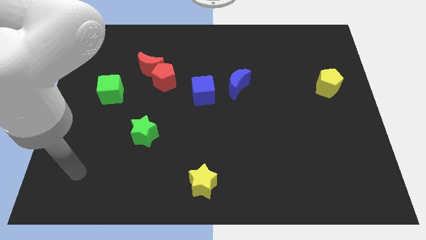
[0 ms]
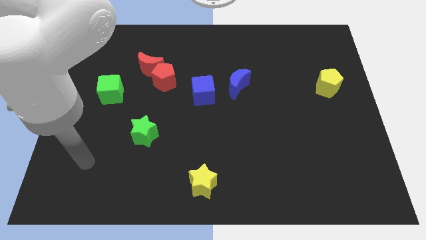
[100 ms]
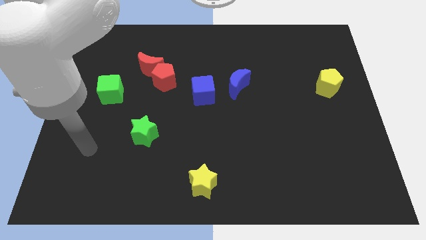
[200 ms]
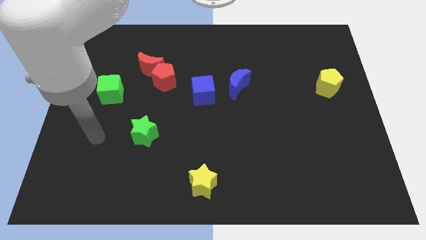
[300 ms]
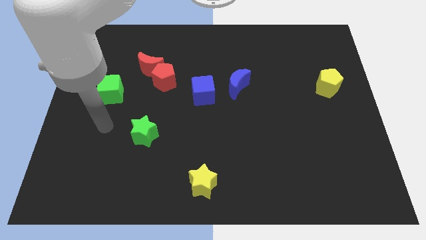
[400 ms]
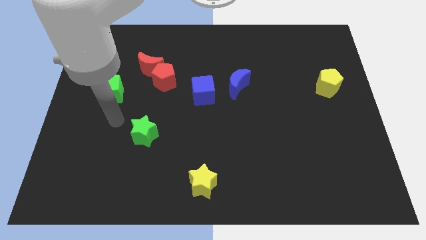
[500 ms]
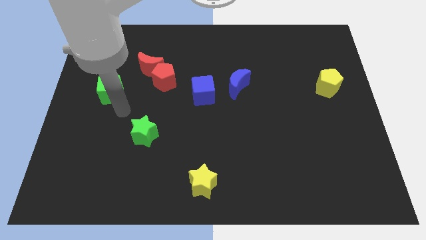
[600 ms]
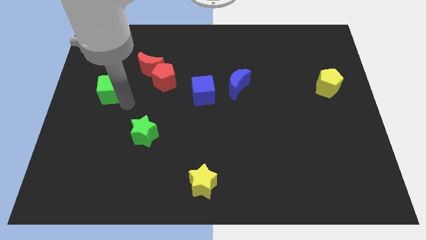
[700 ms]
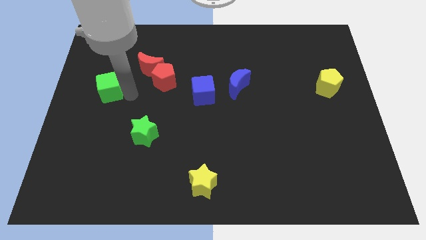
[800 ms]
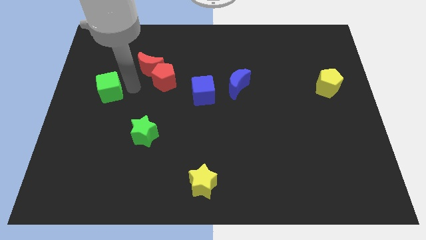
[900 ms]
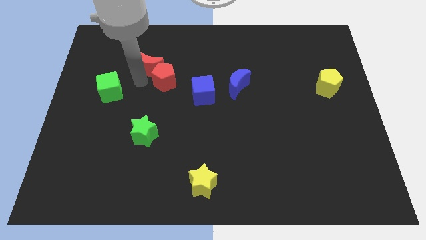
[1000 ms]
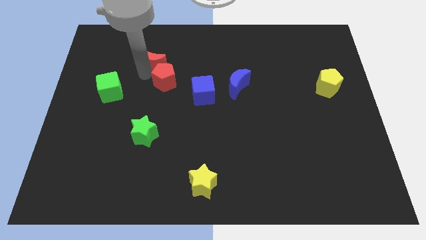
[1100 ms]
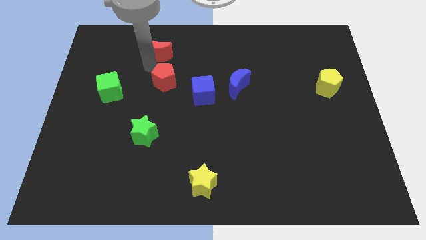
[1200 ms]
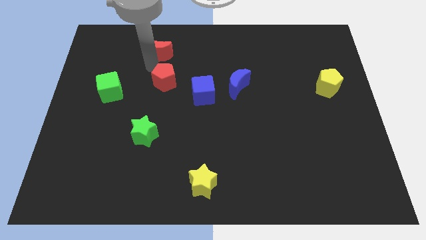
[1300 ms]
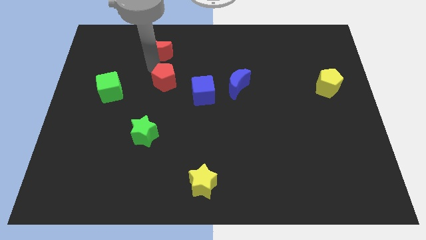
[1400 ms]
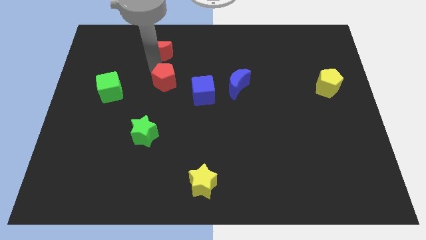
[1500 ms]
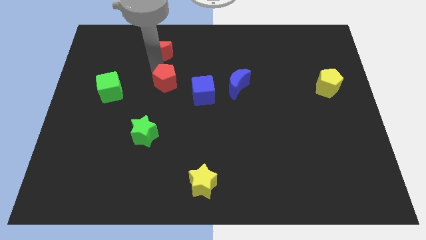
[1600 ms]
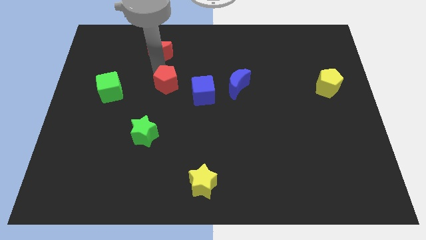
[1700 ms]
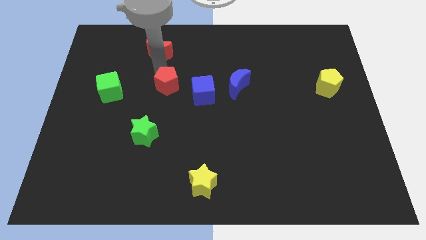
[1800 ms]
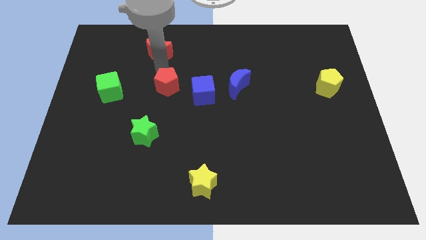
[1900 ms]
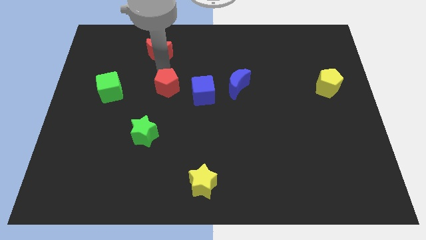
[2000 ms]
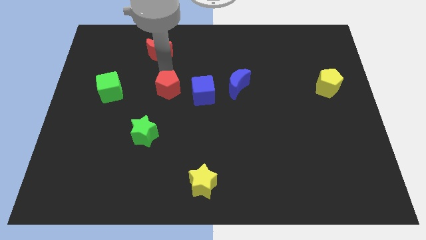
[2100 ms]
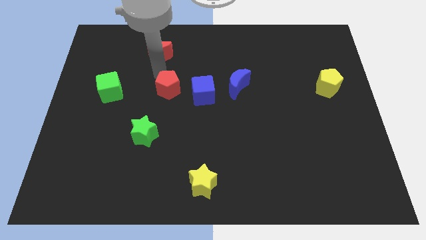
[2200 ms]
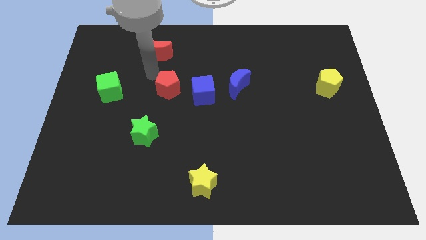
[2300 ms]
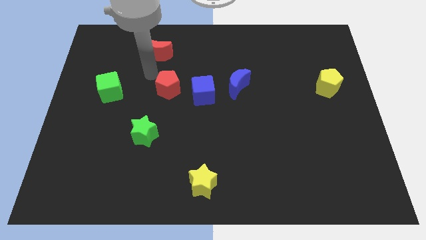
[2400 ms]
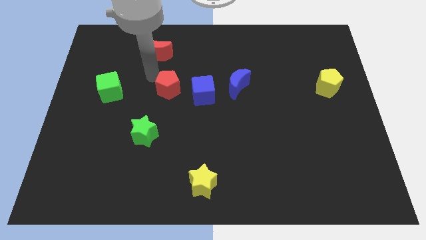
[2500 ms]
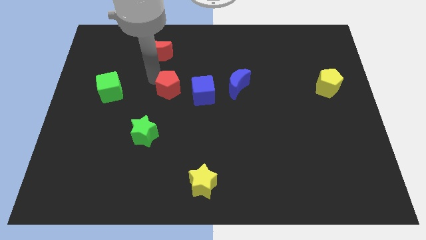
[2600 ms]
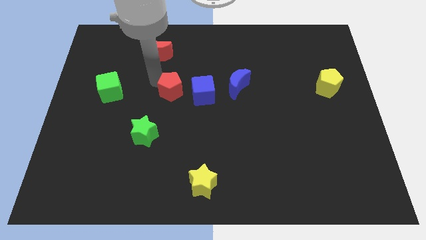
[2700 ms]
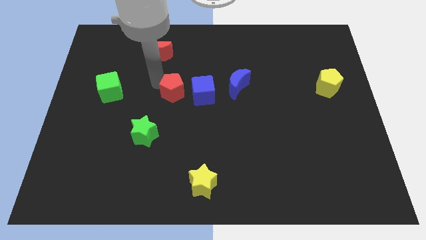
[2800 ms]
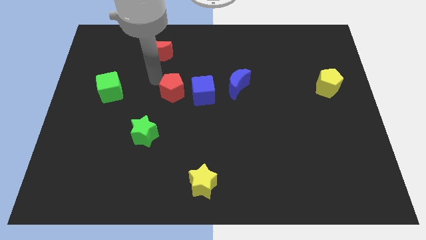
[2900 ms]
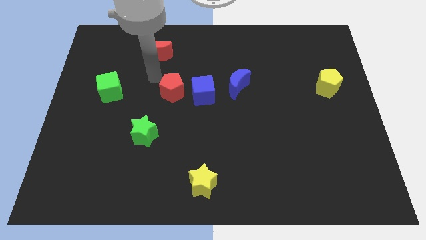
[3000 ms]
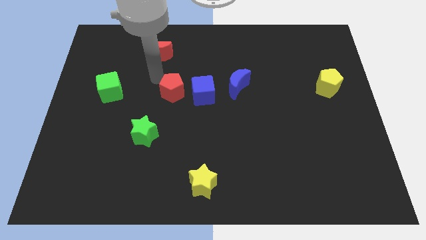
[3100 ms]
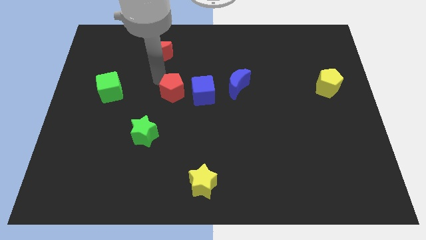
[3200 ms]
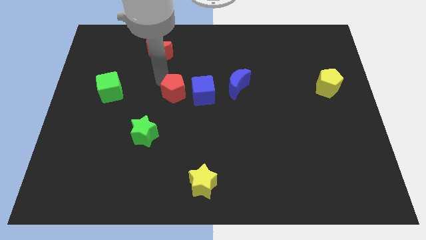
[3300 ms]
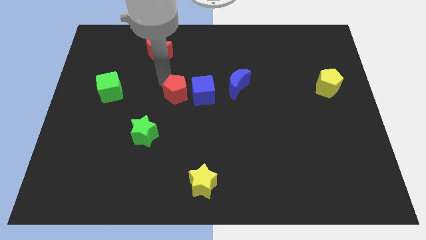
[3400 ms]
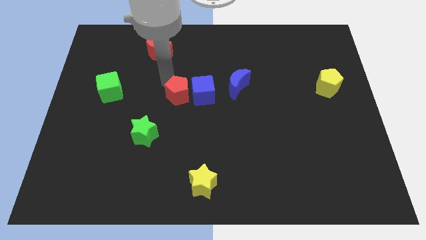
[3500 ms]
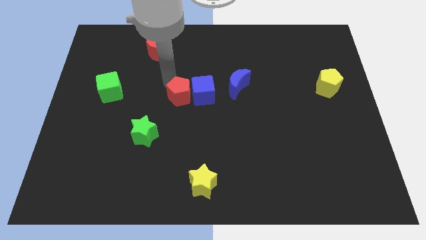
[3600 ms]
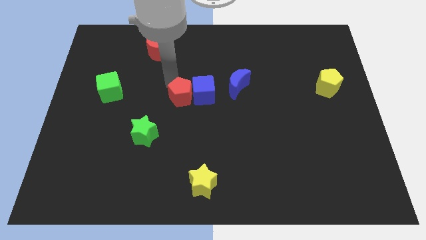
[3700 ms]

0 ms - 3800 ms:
move the red pentagon a little bit down and then to the right

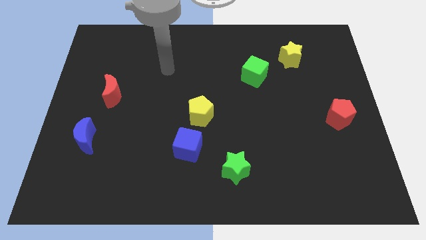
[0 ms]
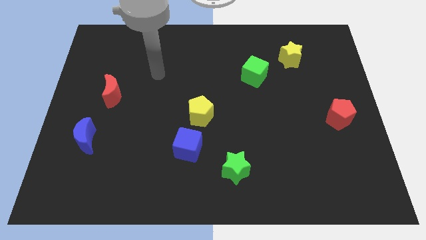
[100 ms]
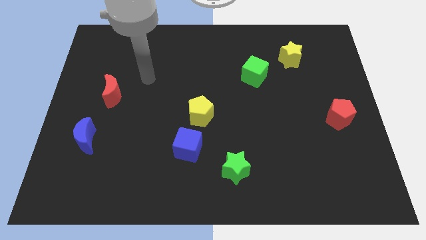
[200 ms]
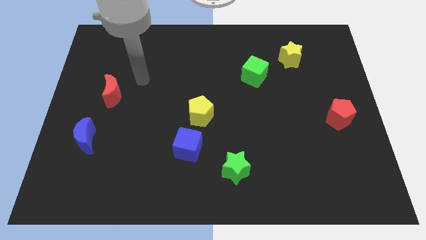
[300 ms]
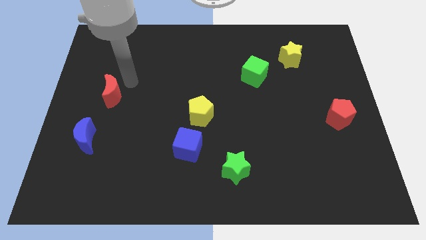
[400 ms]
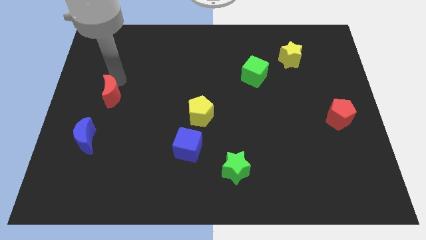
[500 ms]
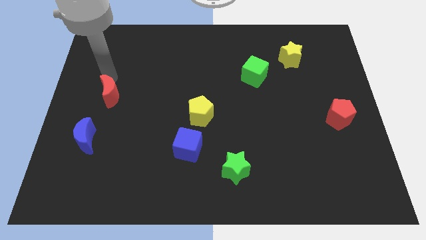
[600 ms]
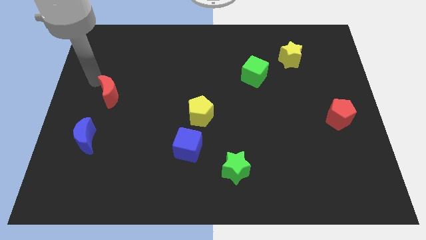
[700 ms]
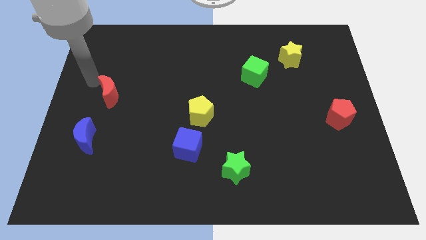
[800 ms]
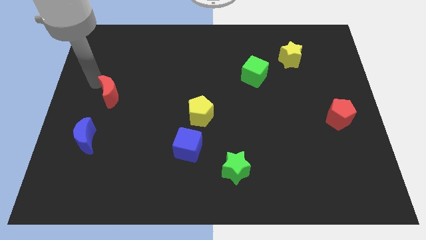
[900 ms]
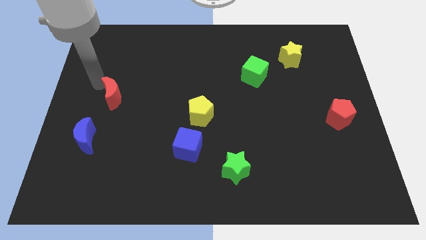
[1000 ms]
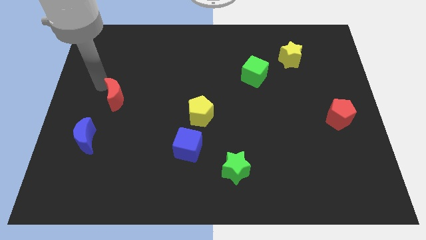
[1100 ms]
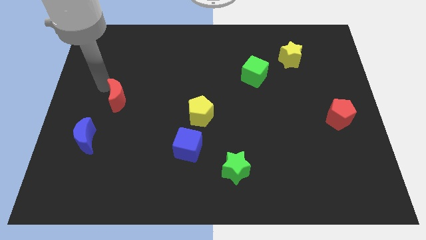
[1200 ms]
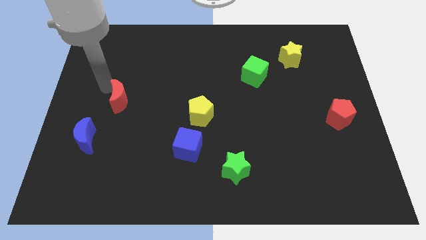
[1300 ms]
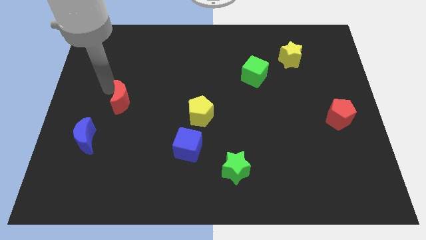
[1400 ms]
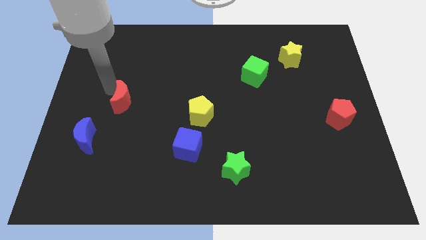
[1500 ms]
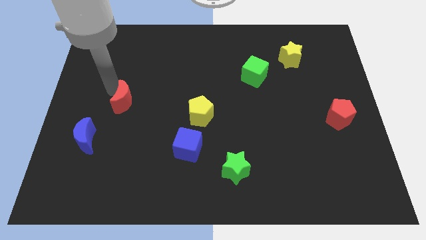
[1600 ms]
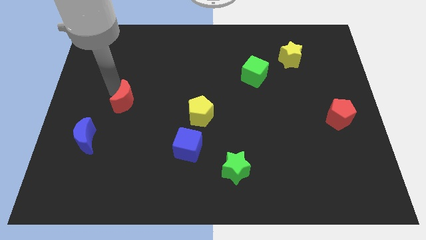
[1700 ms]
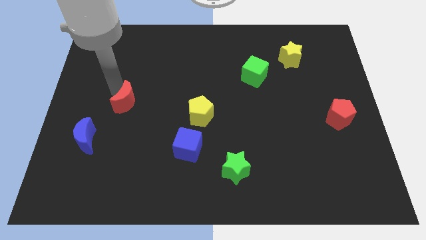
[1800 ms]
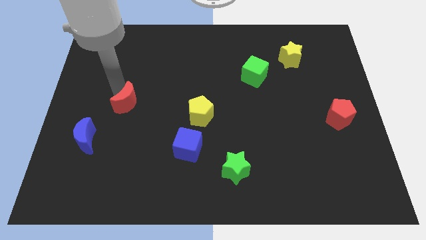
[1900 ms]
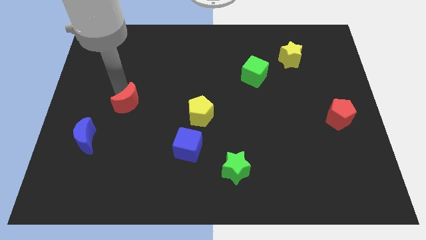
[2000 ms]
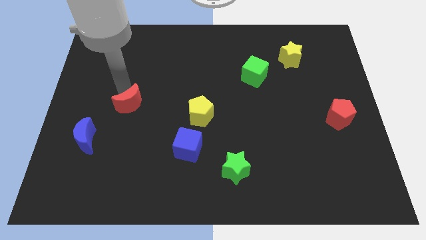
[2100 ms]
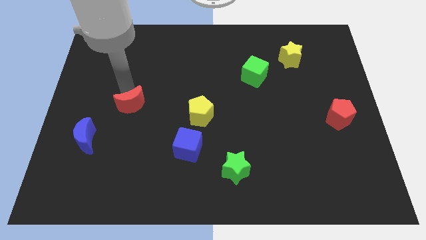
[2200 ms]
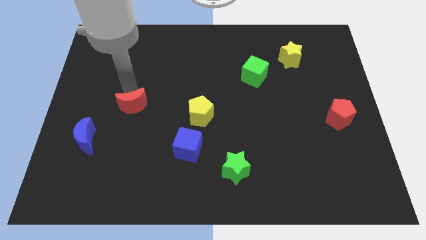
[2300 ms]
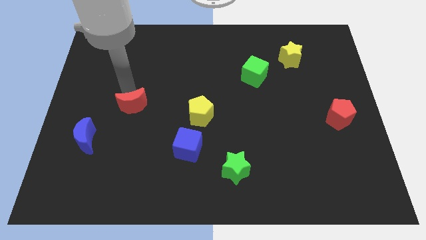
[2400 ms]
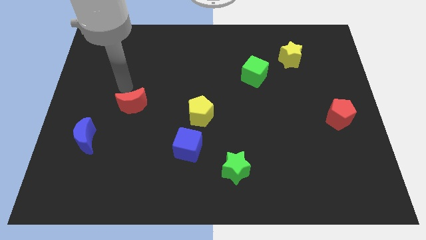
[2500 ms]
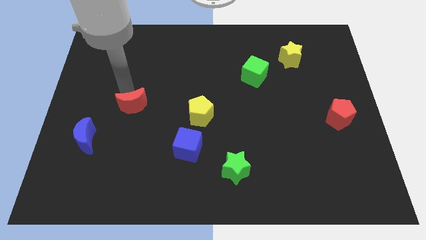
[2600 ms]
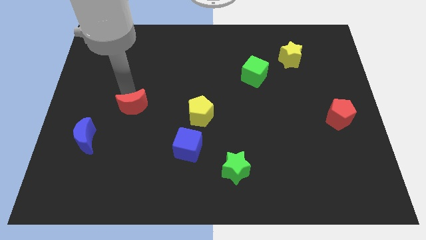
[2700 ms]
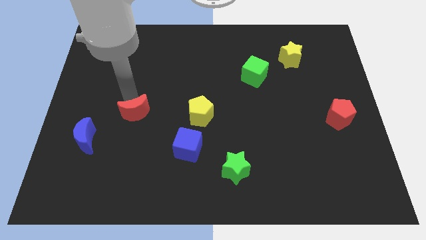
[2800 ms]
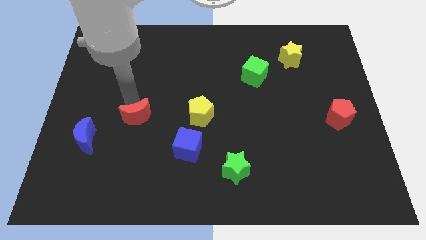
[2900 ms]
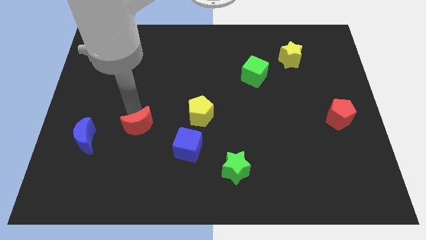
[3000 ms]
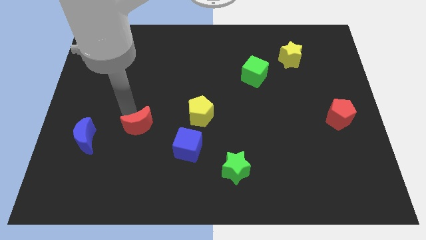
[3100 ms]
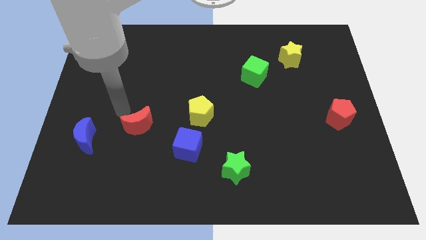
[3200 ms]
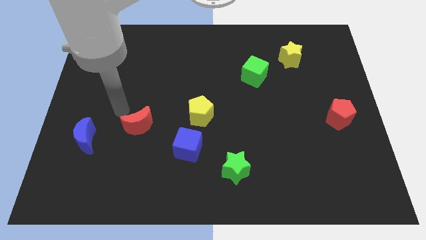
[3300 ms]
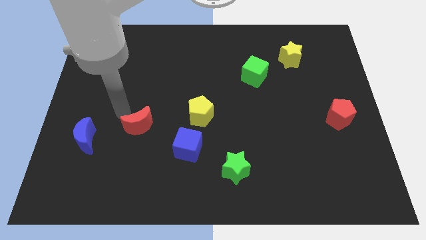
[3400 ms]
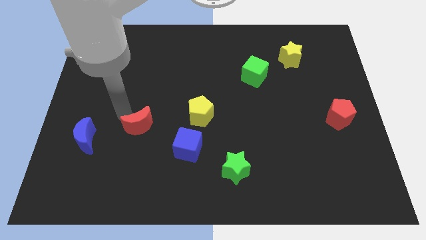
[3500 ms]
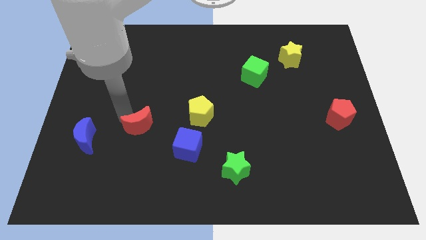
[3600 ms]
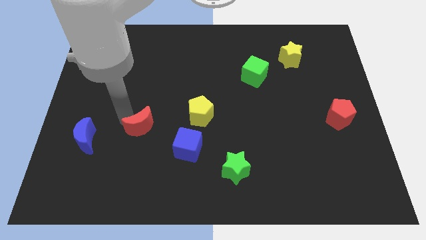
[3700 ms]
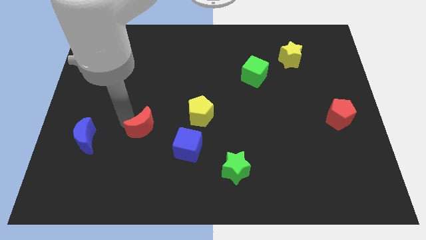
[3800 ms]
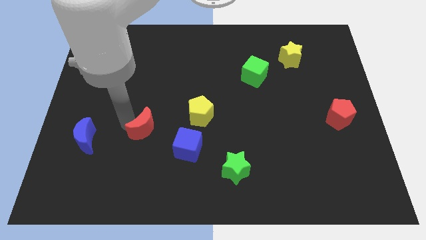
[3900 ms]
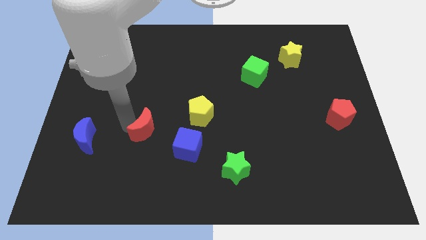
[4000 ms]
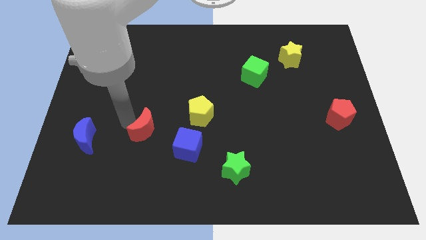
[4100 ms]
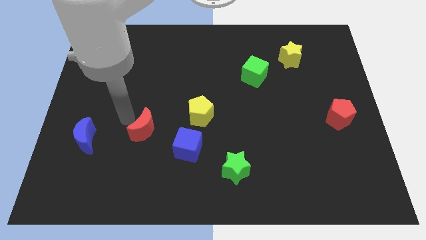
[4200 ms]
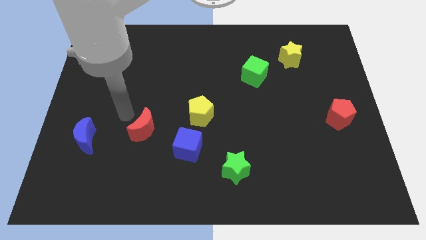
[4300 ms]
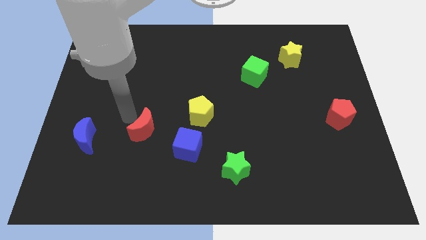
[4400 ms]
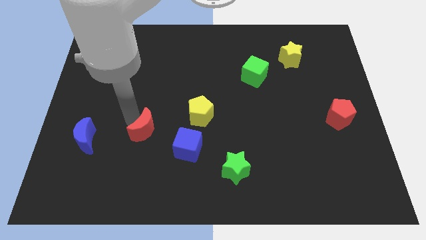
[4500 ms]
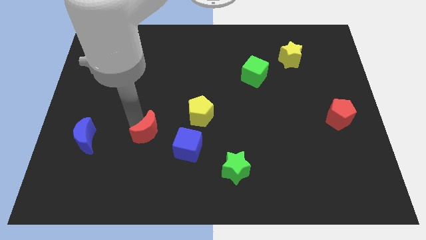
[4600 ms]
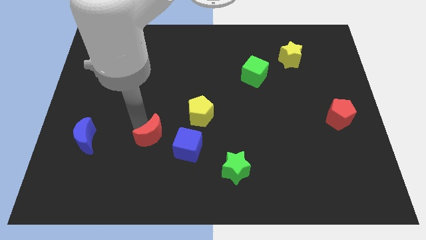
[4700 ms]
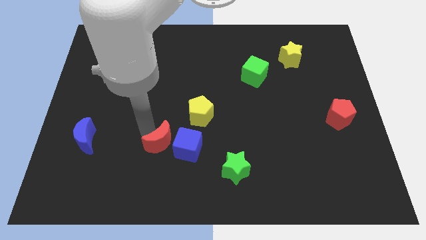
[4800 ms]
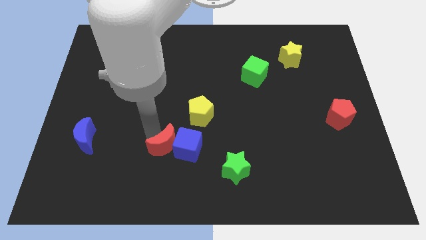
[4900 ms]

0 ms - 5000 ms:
push the red moon down and then right
